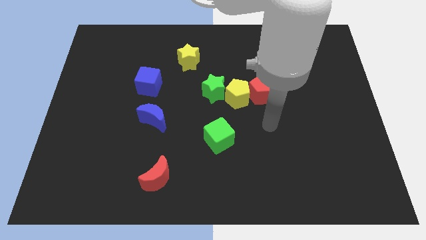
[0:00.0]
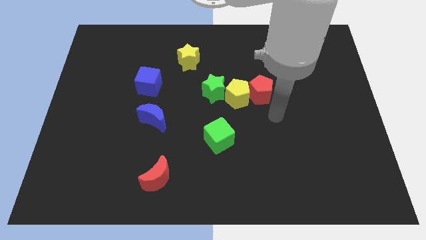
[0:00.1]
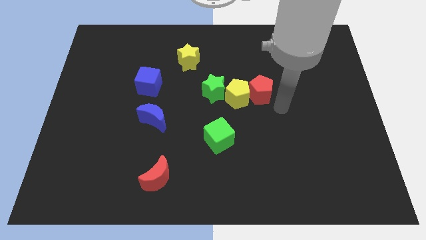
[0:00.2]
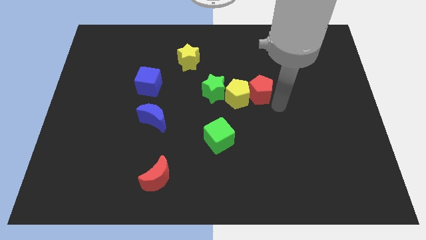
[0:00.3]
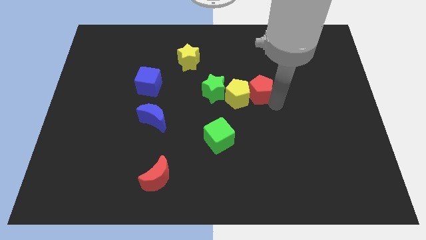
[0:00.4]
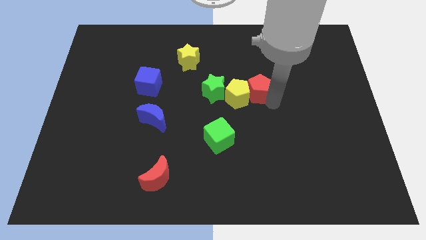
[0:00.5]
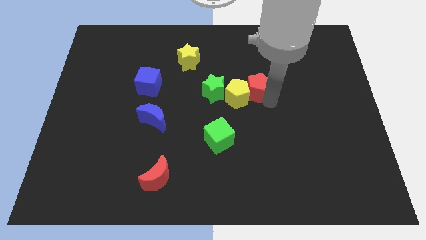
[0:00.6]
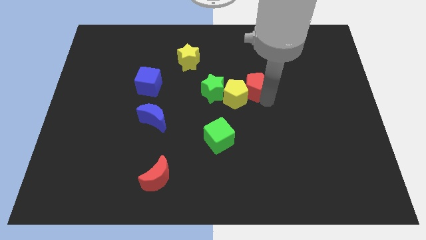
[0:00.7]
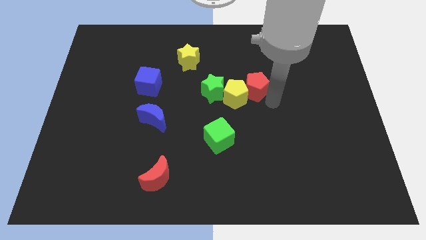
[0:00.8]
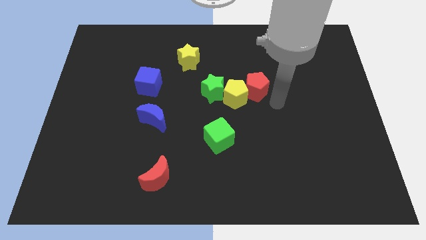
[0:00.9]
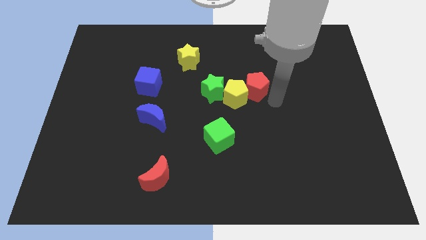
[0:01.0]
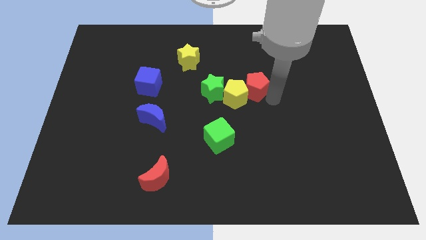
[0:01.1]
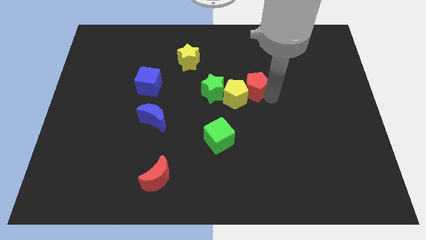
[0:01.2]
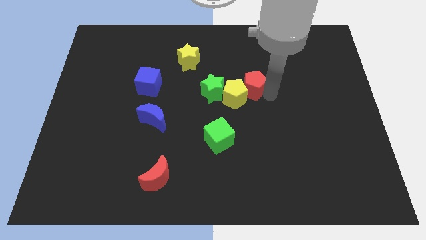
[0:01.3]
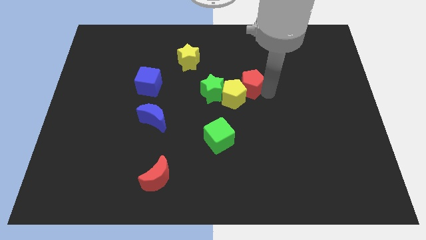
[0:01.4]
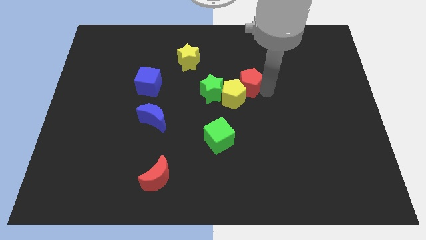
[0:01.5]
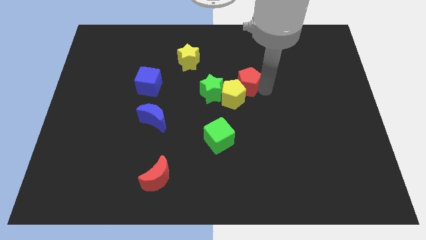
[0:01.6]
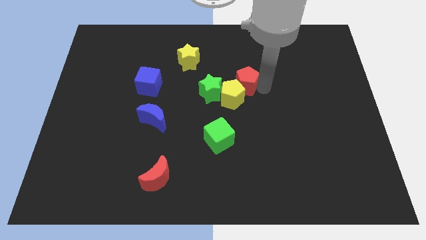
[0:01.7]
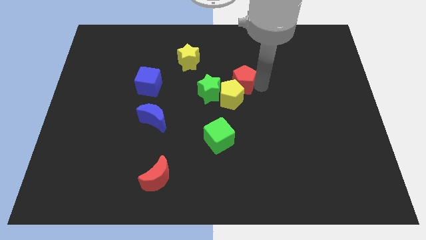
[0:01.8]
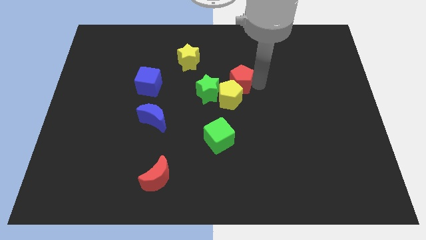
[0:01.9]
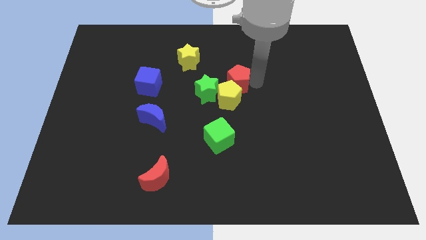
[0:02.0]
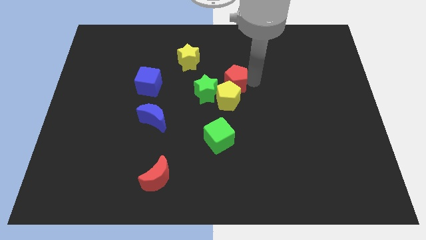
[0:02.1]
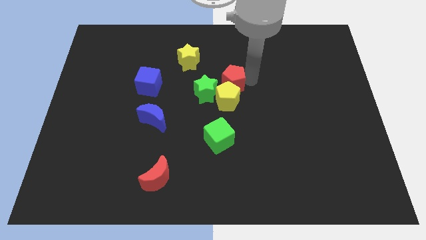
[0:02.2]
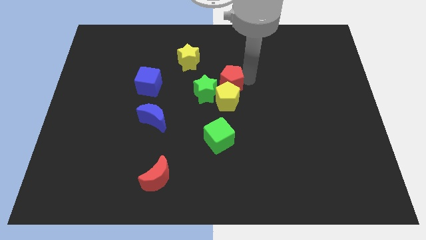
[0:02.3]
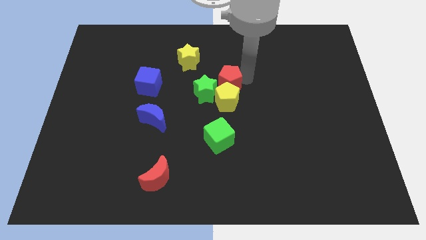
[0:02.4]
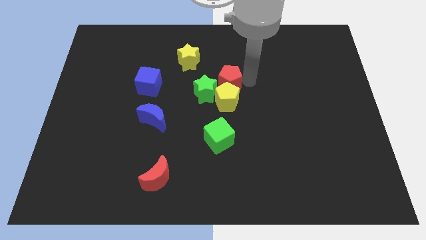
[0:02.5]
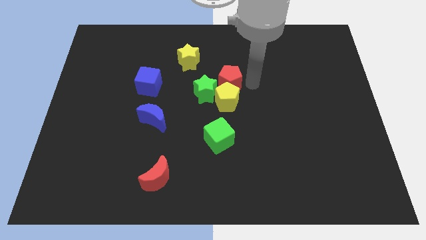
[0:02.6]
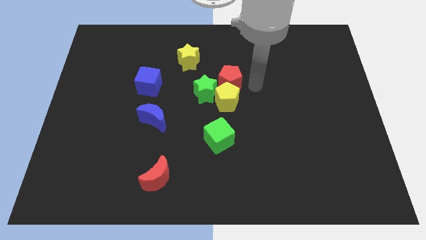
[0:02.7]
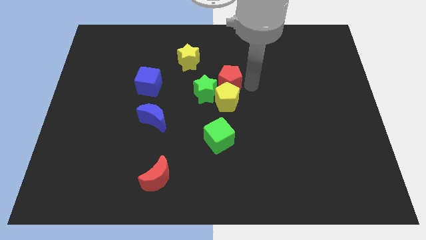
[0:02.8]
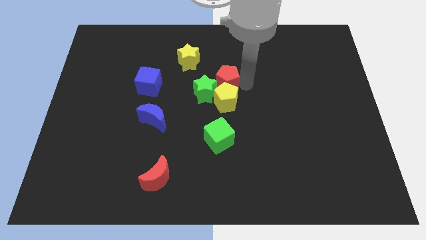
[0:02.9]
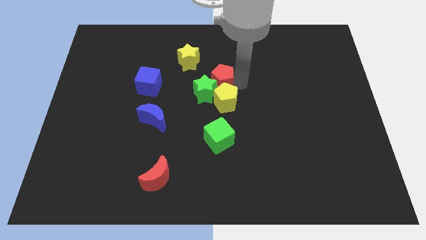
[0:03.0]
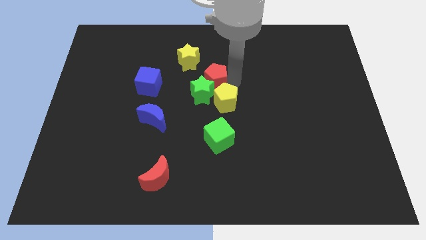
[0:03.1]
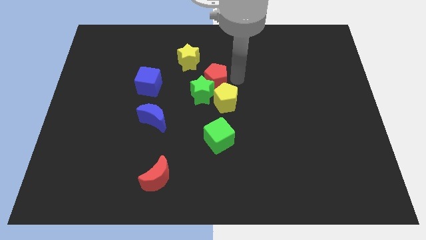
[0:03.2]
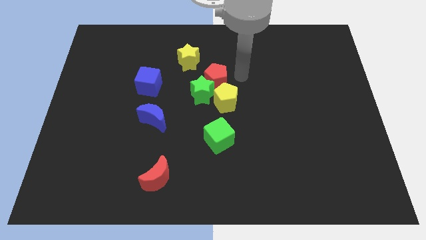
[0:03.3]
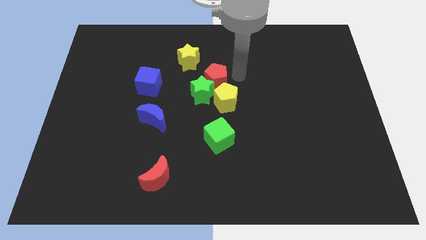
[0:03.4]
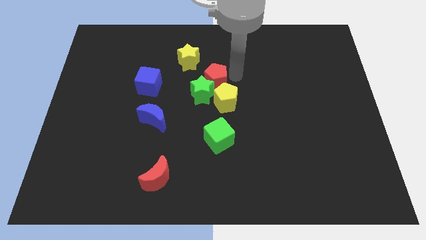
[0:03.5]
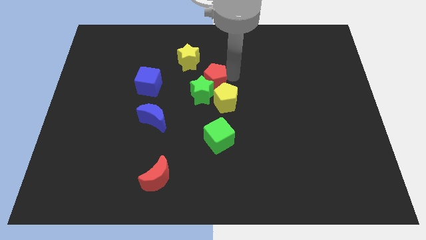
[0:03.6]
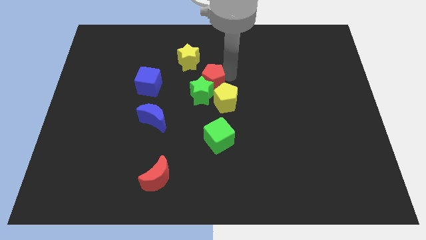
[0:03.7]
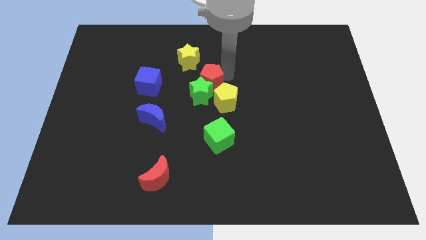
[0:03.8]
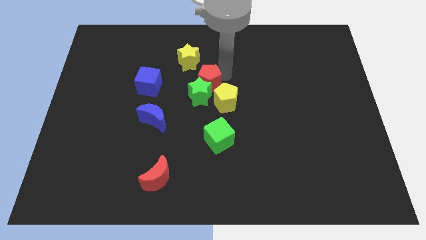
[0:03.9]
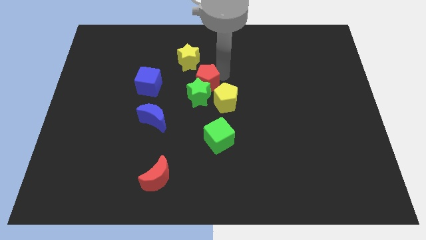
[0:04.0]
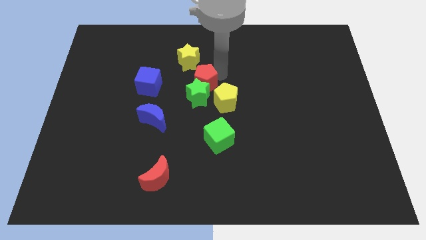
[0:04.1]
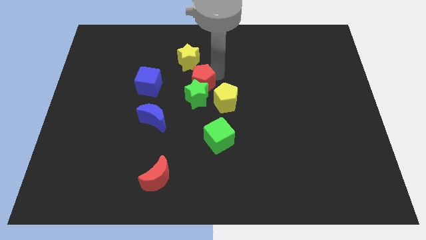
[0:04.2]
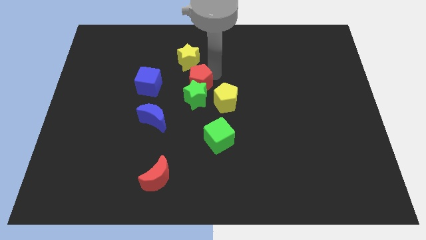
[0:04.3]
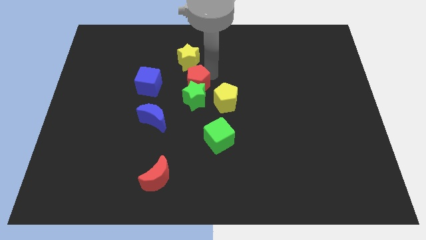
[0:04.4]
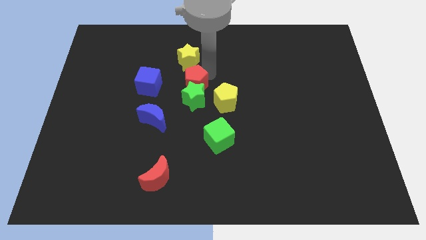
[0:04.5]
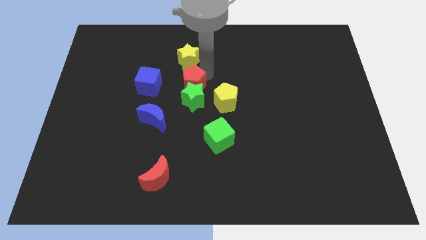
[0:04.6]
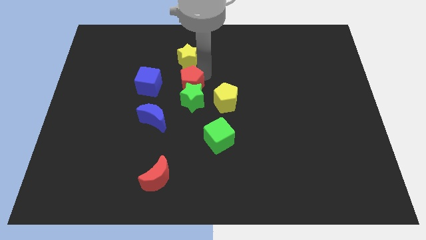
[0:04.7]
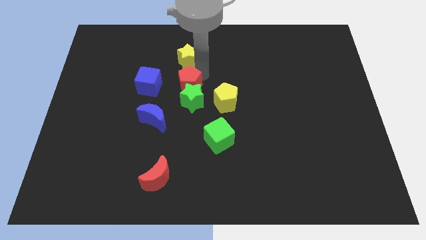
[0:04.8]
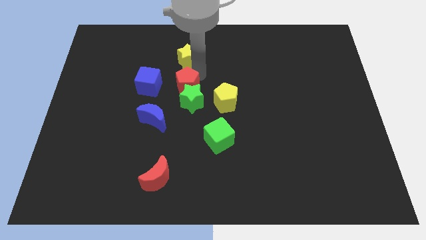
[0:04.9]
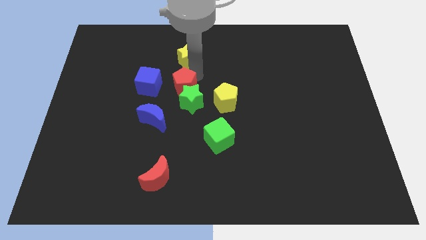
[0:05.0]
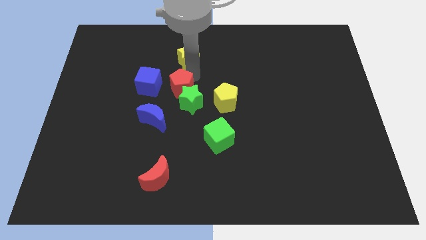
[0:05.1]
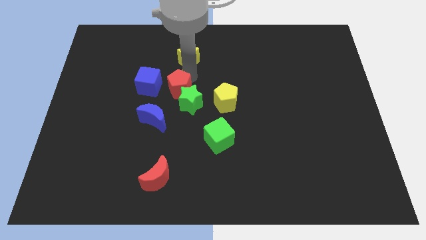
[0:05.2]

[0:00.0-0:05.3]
slide the red pentagon to the bottom right side of the blue cube

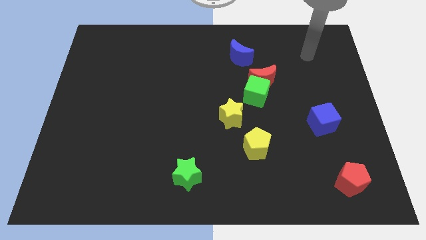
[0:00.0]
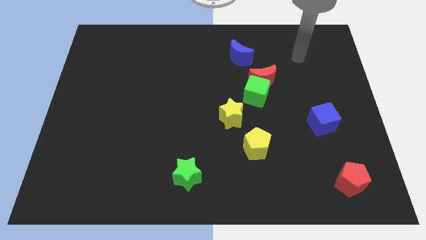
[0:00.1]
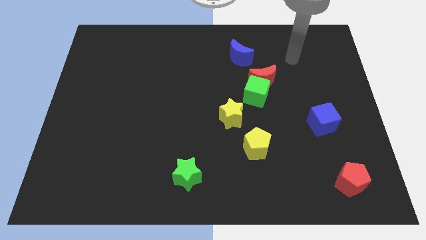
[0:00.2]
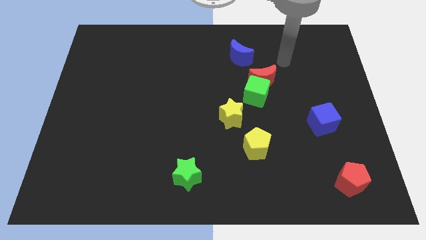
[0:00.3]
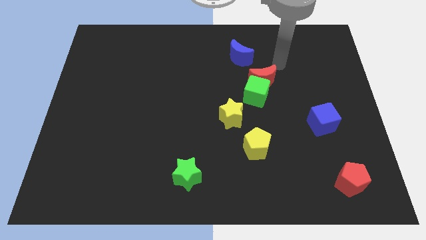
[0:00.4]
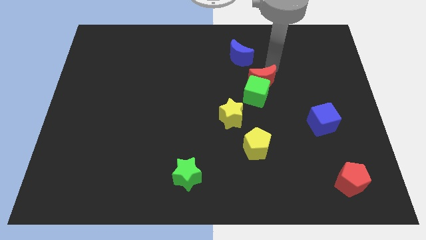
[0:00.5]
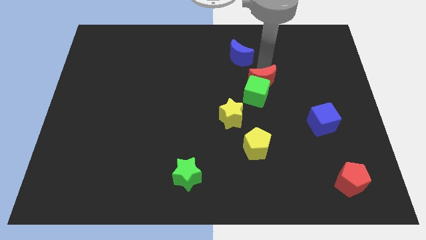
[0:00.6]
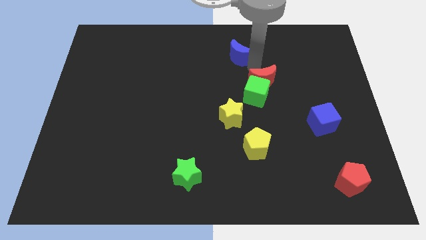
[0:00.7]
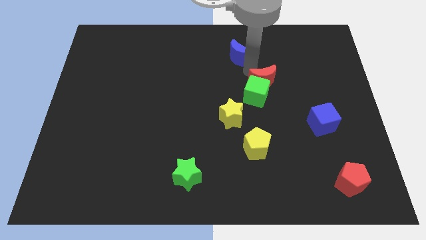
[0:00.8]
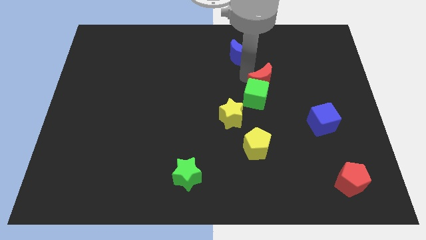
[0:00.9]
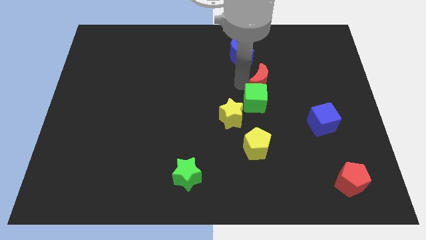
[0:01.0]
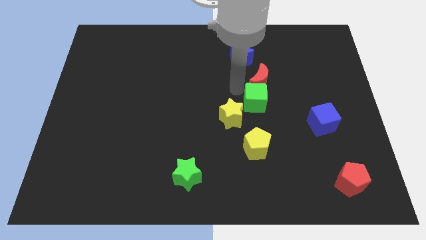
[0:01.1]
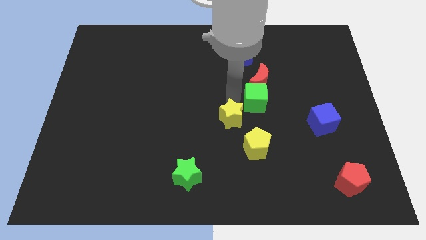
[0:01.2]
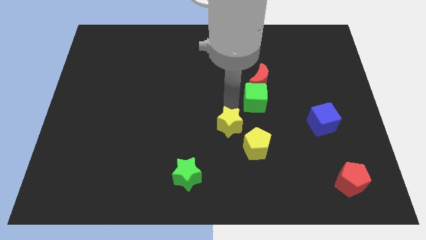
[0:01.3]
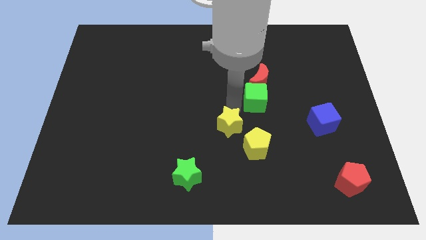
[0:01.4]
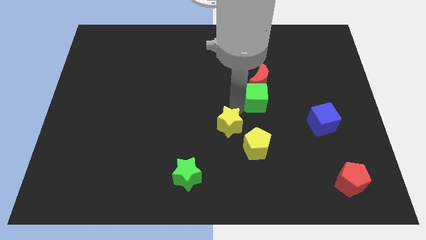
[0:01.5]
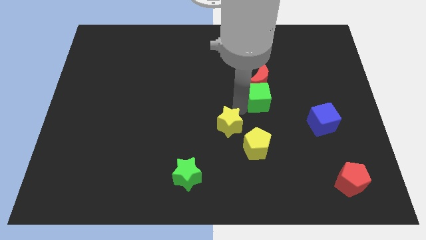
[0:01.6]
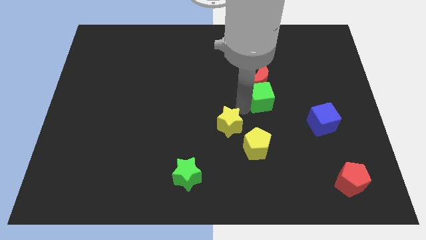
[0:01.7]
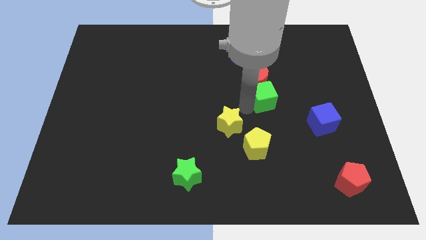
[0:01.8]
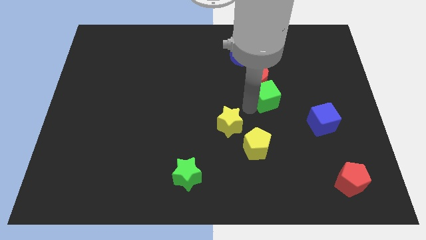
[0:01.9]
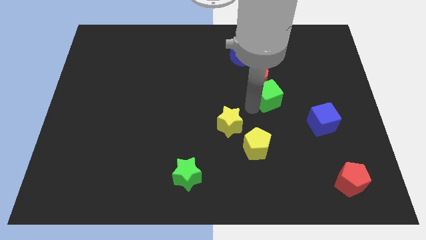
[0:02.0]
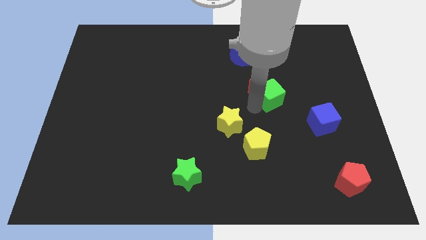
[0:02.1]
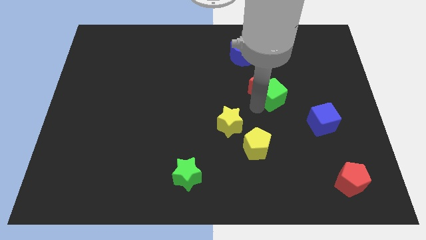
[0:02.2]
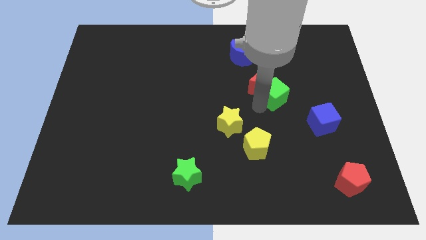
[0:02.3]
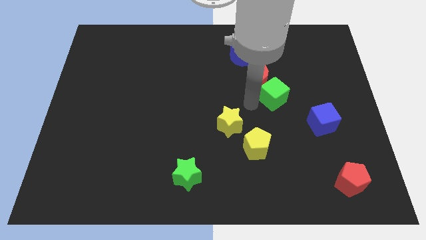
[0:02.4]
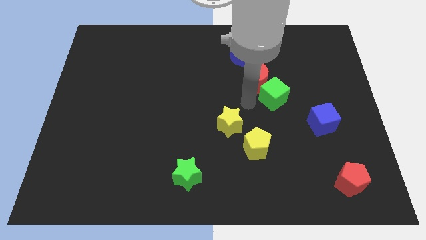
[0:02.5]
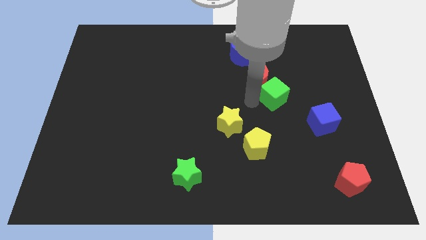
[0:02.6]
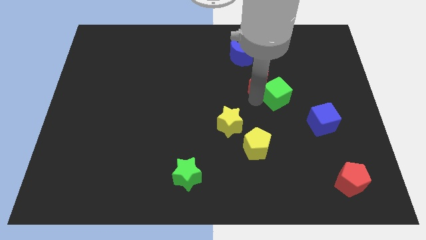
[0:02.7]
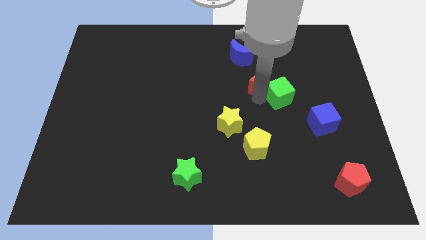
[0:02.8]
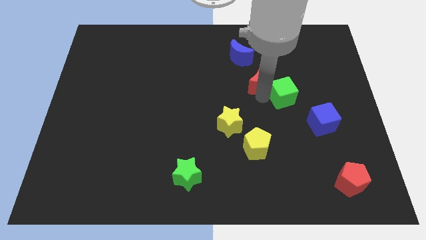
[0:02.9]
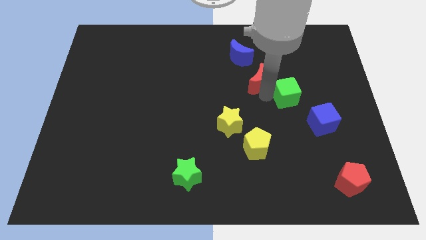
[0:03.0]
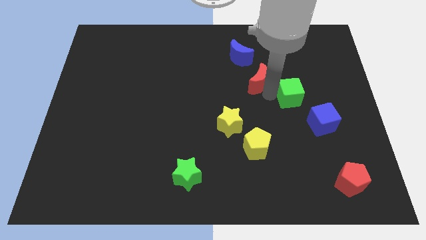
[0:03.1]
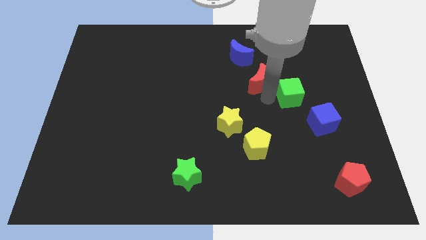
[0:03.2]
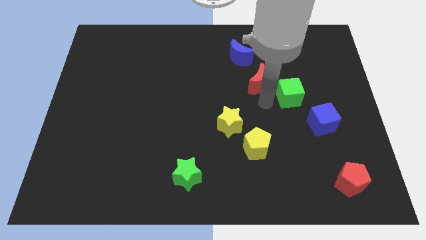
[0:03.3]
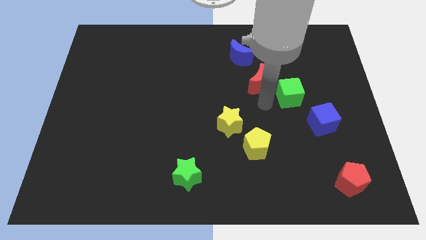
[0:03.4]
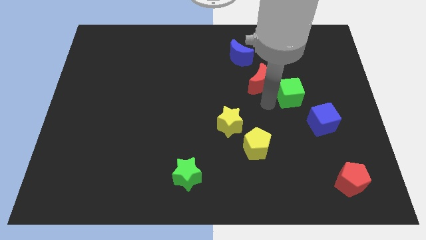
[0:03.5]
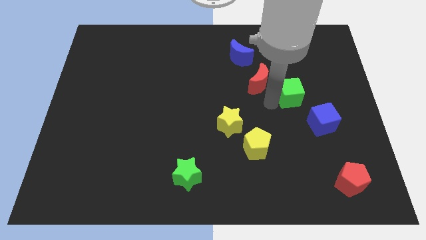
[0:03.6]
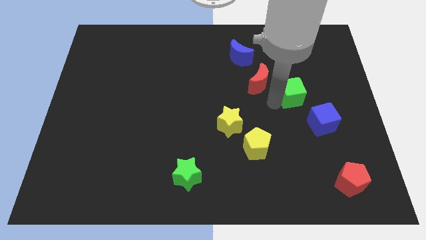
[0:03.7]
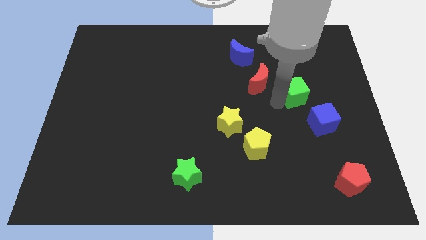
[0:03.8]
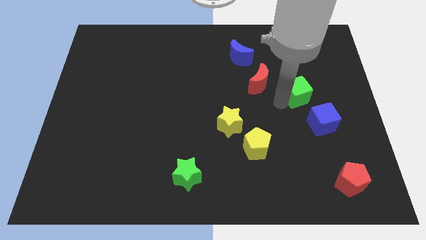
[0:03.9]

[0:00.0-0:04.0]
put the green cube to the top of the blue cube
